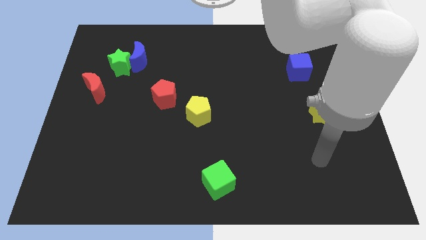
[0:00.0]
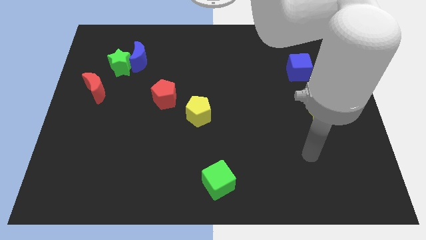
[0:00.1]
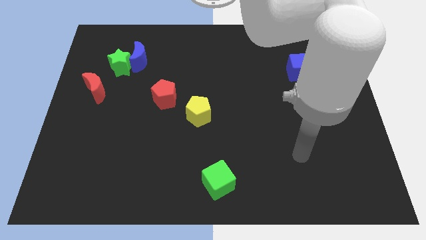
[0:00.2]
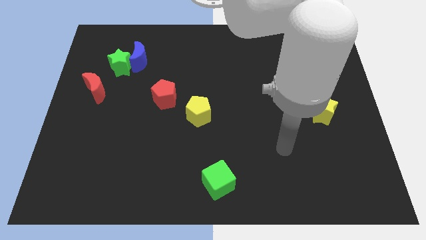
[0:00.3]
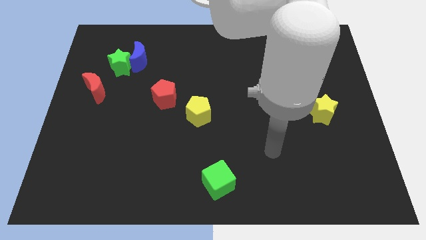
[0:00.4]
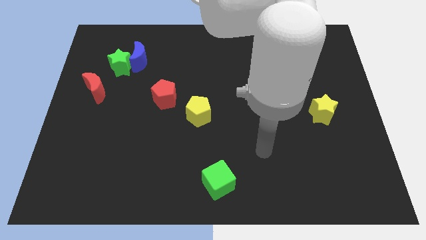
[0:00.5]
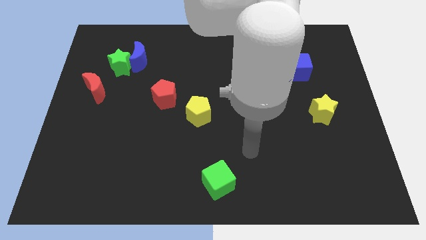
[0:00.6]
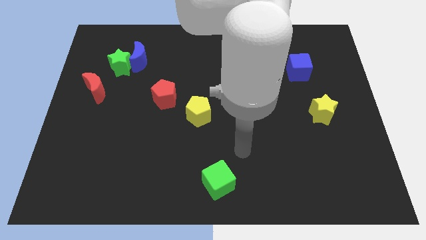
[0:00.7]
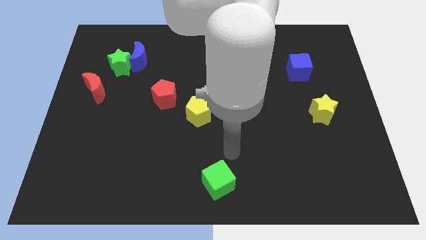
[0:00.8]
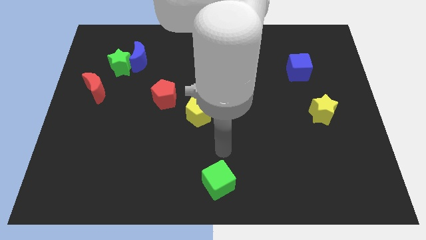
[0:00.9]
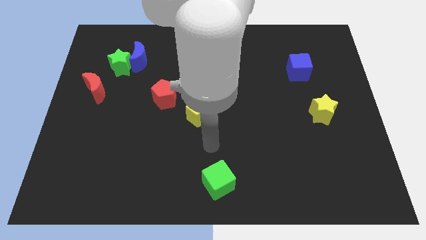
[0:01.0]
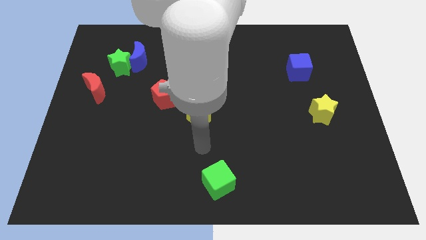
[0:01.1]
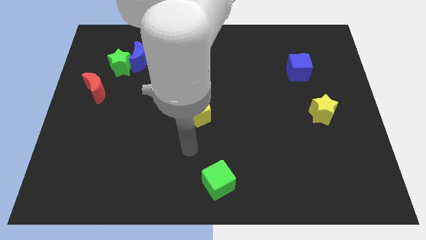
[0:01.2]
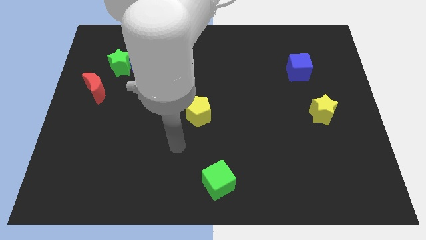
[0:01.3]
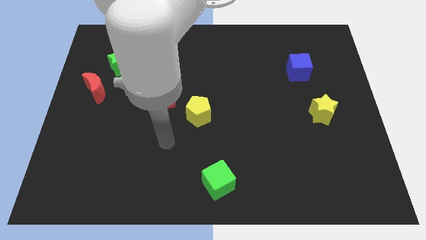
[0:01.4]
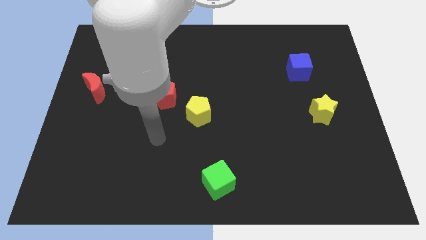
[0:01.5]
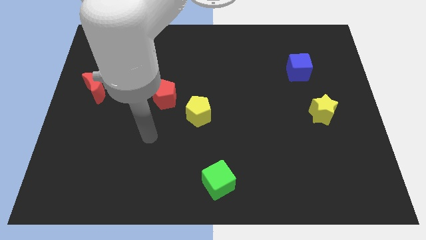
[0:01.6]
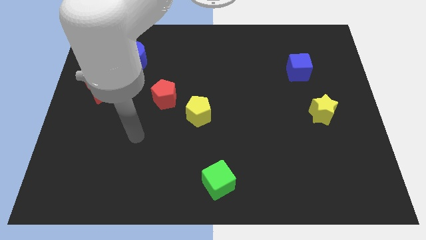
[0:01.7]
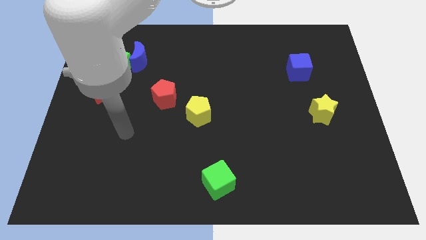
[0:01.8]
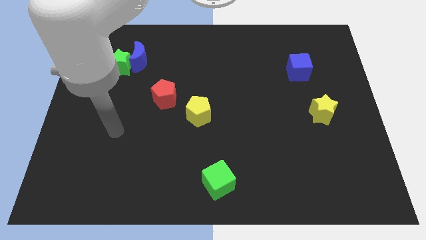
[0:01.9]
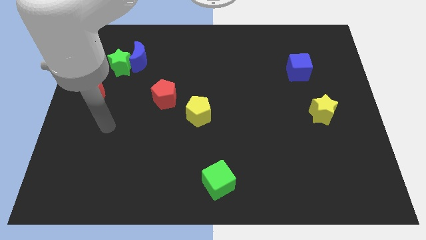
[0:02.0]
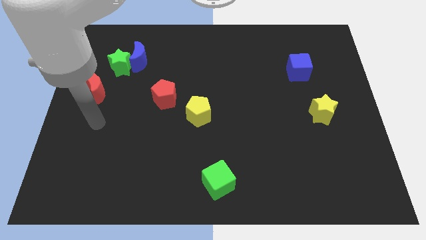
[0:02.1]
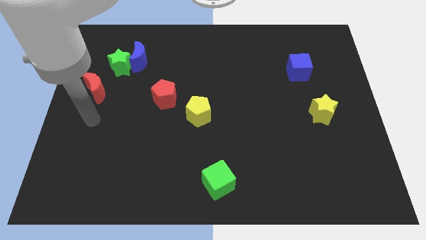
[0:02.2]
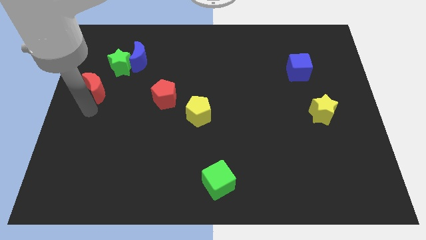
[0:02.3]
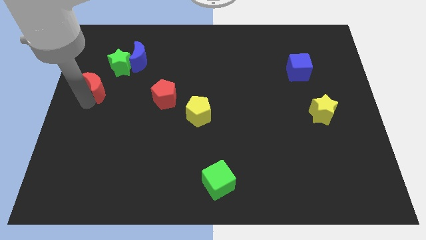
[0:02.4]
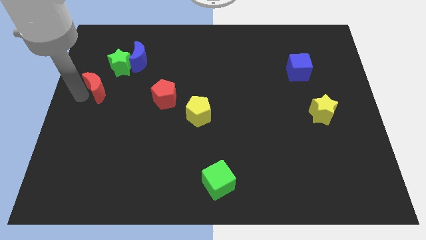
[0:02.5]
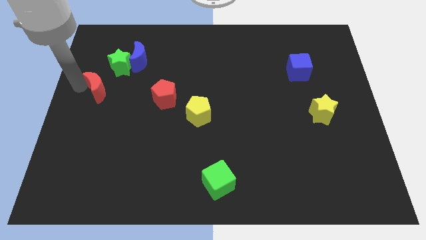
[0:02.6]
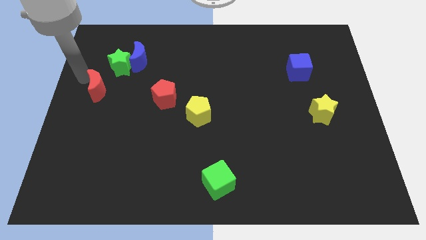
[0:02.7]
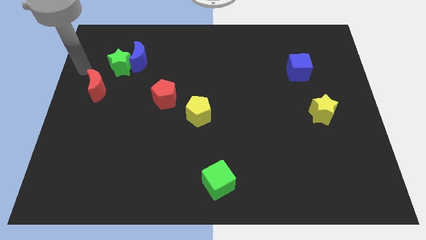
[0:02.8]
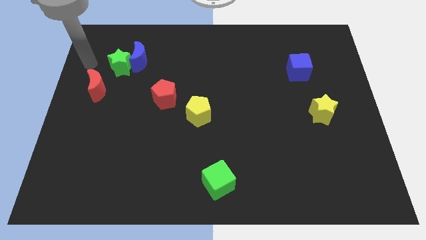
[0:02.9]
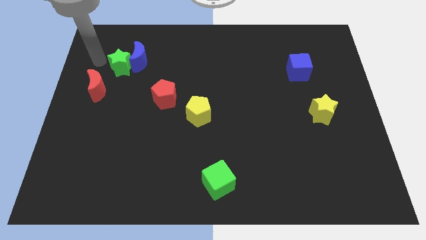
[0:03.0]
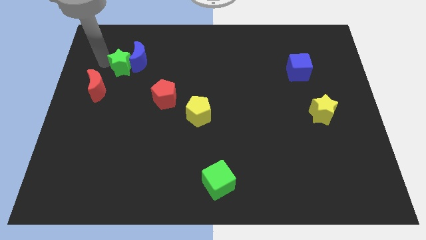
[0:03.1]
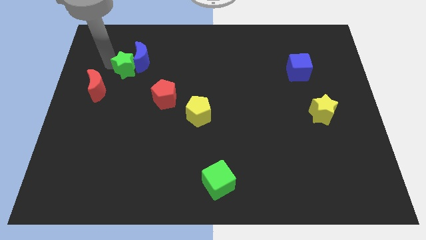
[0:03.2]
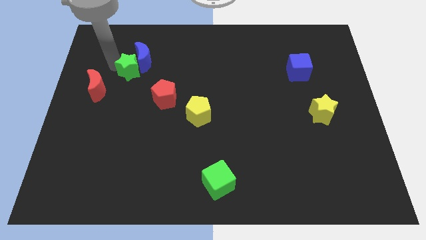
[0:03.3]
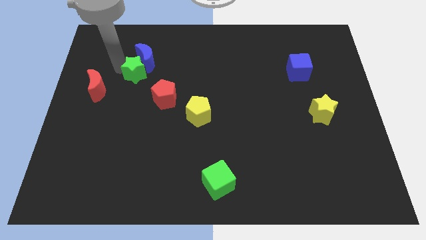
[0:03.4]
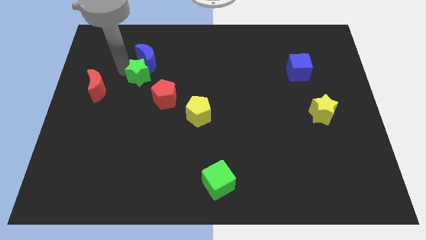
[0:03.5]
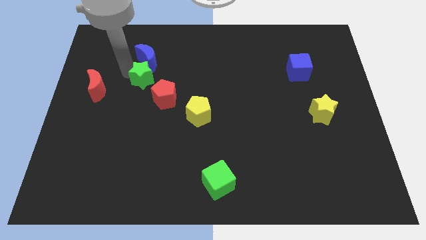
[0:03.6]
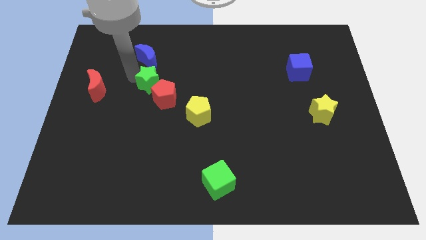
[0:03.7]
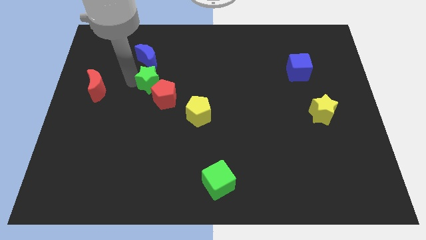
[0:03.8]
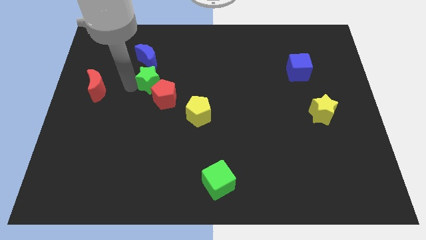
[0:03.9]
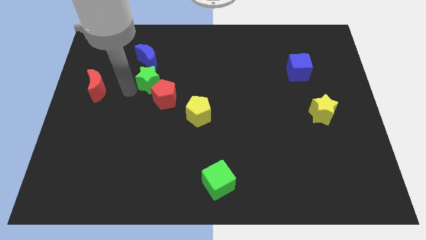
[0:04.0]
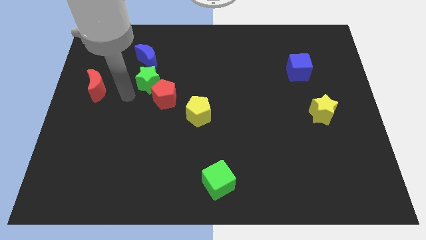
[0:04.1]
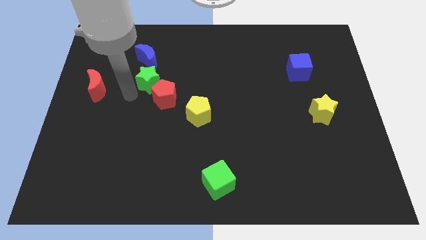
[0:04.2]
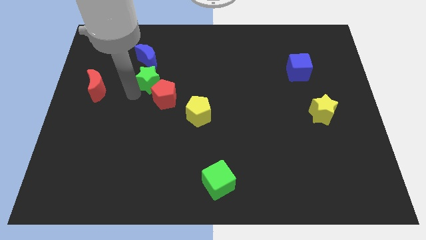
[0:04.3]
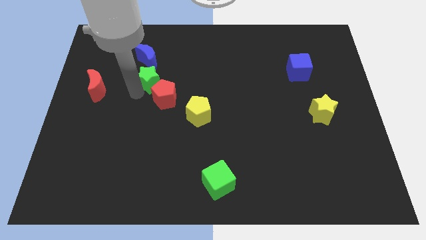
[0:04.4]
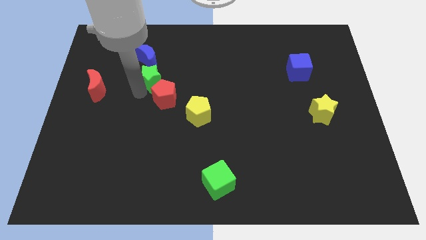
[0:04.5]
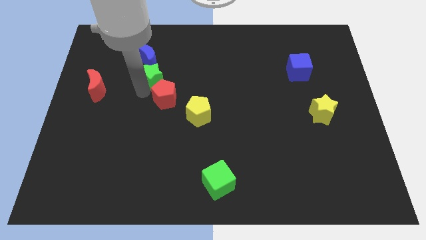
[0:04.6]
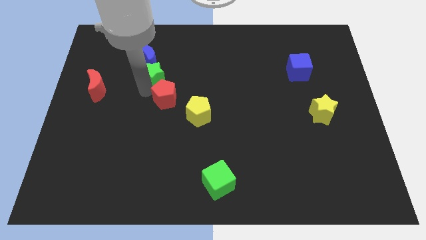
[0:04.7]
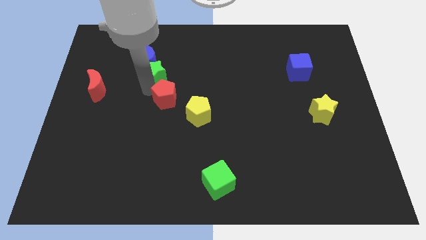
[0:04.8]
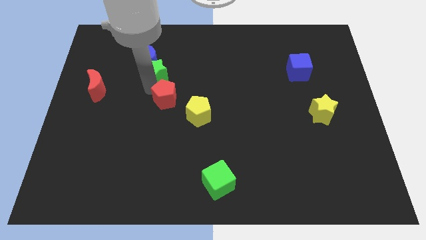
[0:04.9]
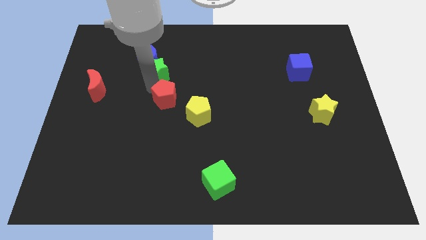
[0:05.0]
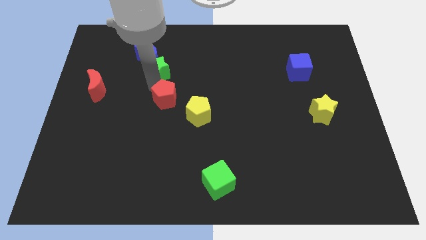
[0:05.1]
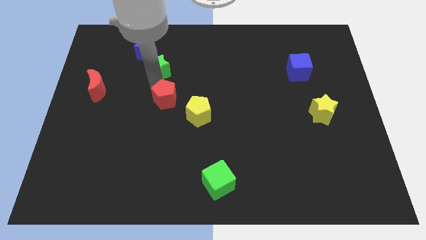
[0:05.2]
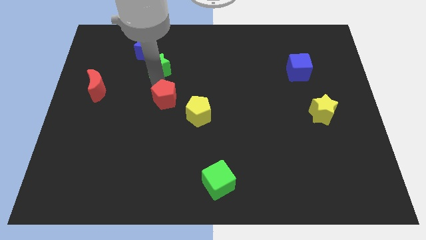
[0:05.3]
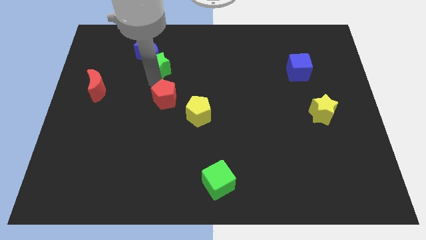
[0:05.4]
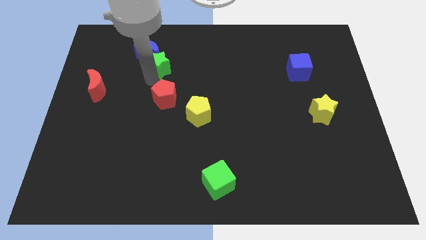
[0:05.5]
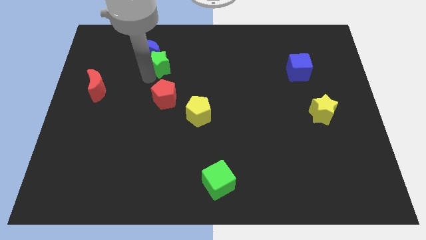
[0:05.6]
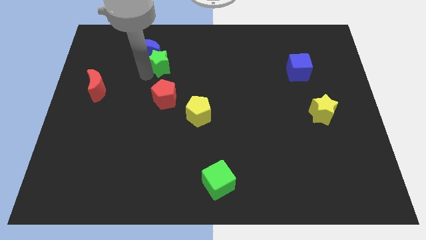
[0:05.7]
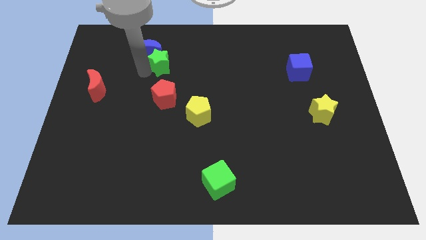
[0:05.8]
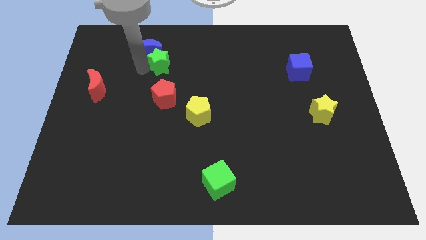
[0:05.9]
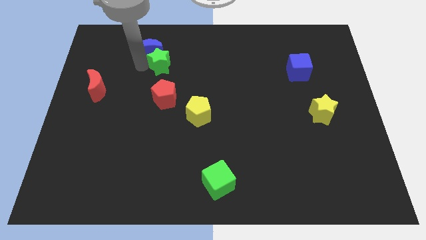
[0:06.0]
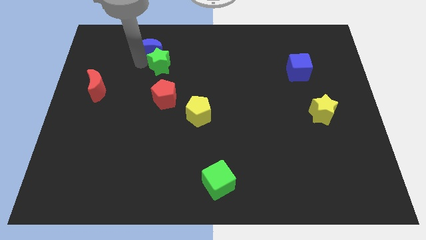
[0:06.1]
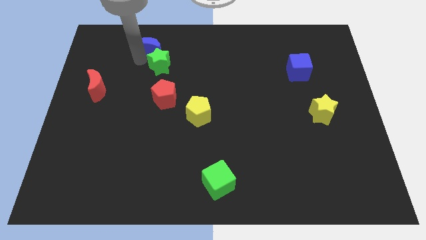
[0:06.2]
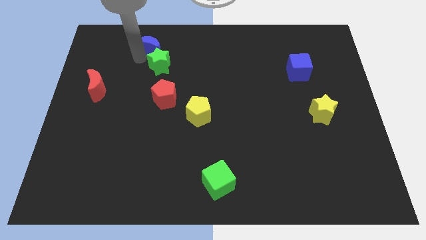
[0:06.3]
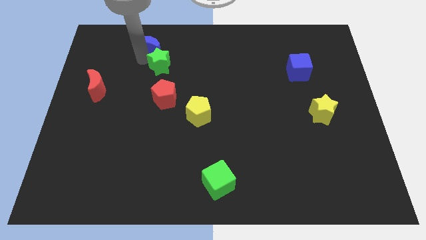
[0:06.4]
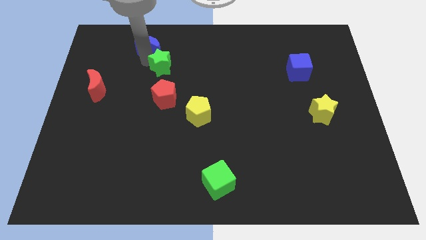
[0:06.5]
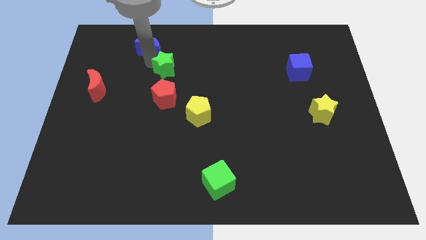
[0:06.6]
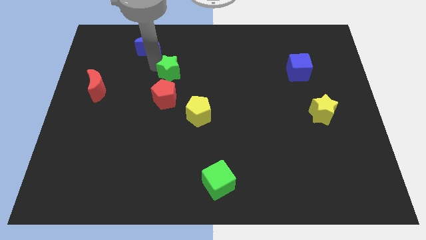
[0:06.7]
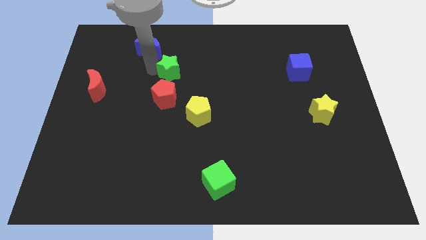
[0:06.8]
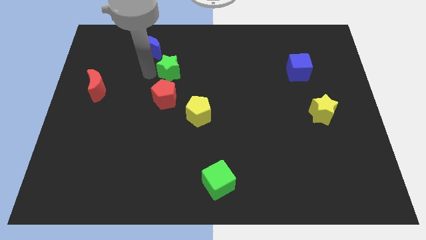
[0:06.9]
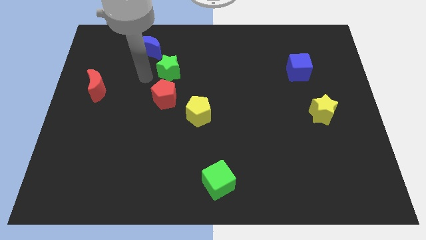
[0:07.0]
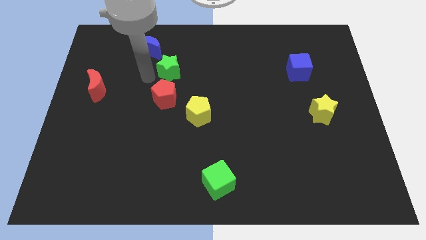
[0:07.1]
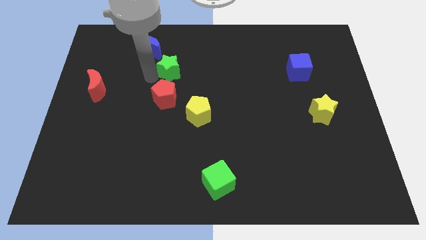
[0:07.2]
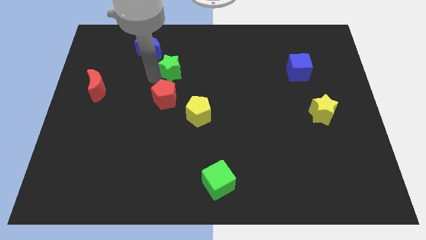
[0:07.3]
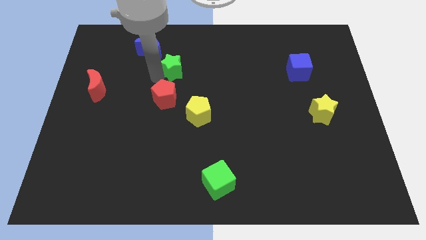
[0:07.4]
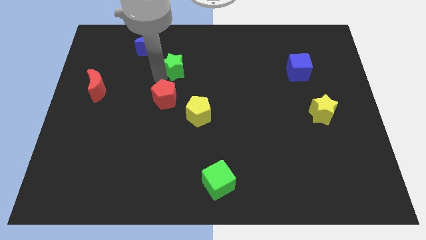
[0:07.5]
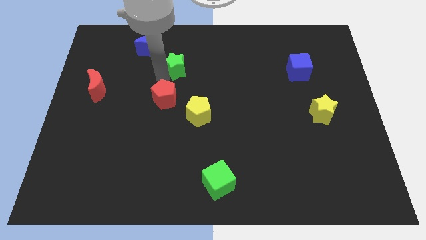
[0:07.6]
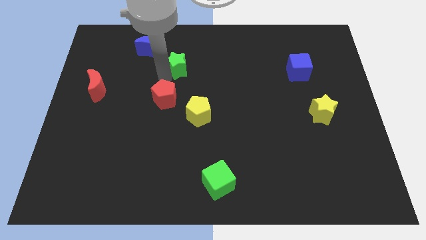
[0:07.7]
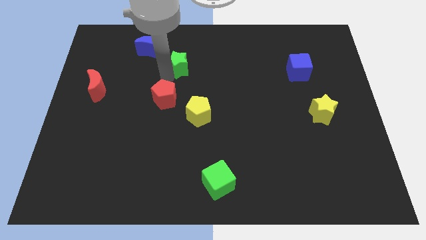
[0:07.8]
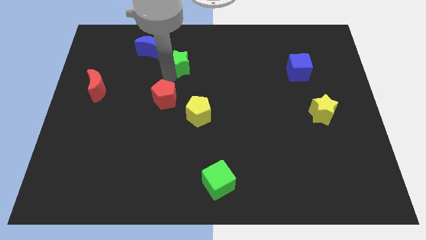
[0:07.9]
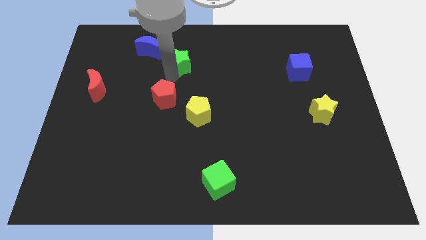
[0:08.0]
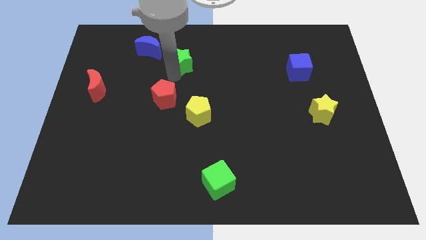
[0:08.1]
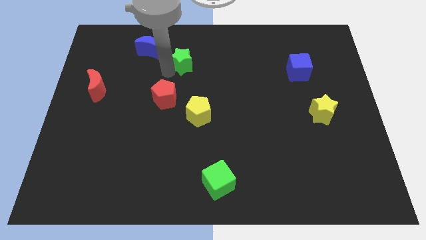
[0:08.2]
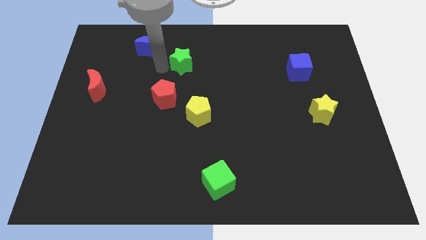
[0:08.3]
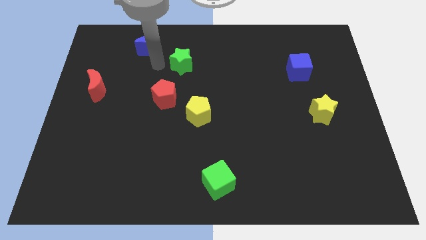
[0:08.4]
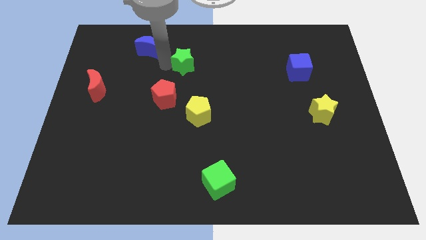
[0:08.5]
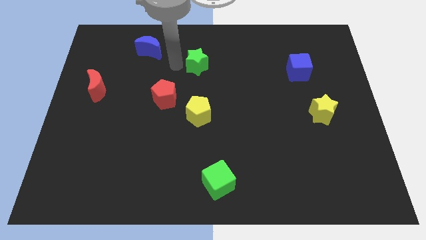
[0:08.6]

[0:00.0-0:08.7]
move the green star right
